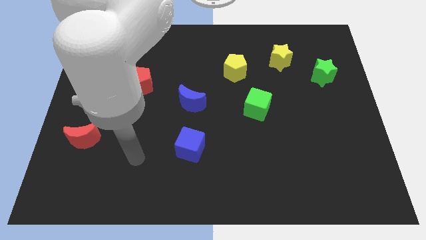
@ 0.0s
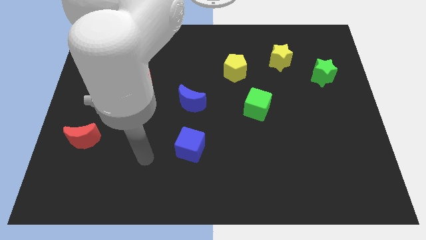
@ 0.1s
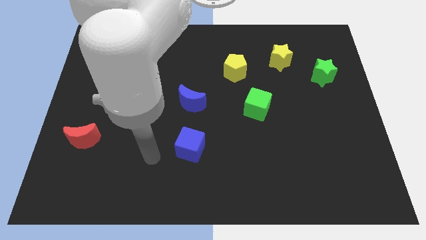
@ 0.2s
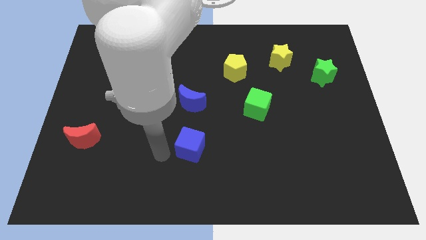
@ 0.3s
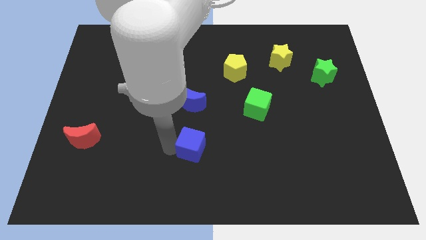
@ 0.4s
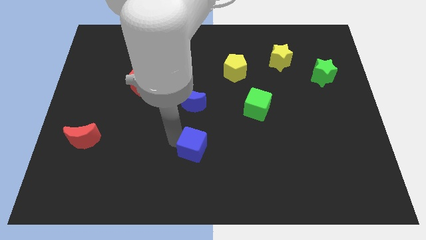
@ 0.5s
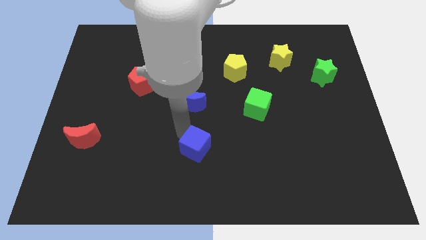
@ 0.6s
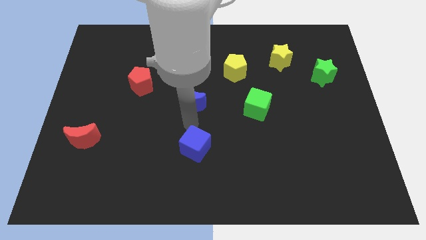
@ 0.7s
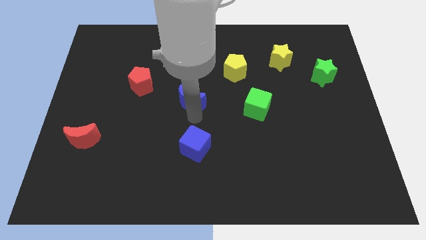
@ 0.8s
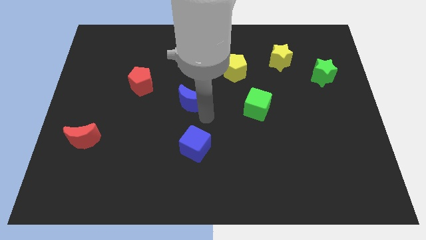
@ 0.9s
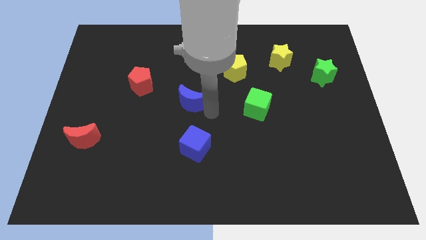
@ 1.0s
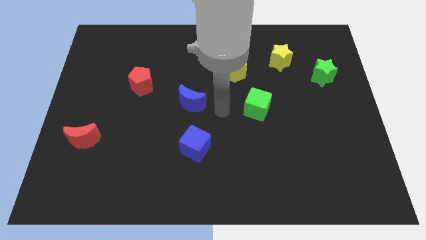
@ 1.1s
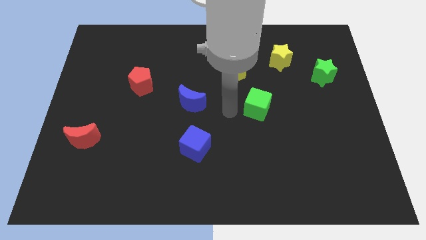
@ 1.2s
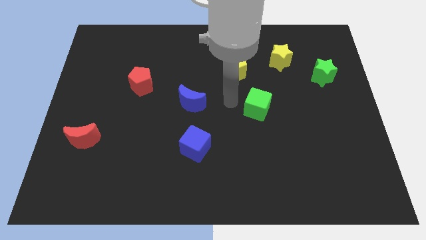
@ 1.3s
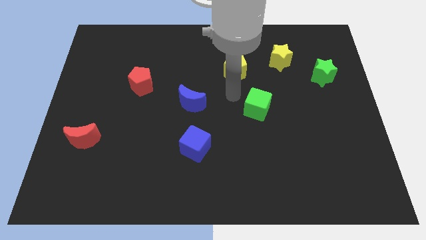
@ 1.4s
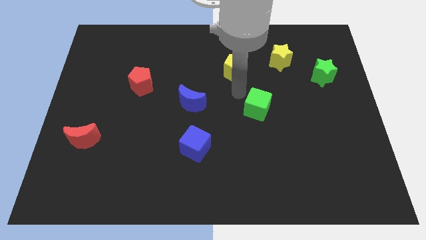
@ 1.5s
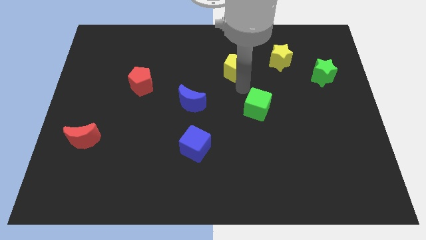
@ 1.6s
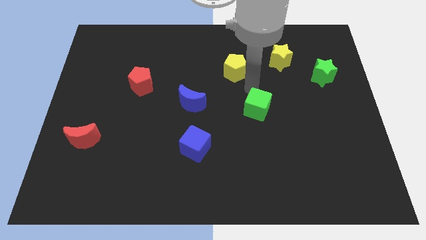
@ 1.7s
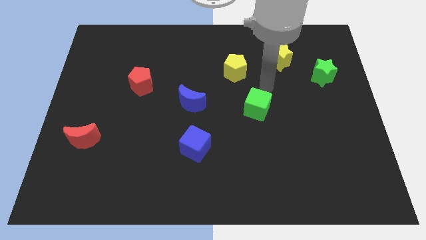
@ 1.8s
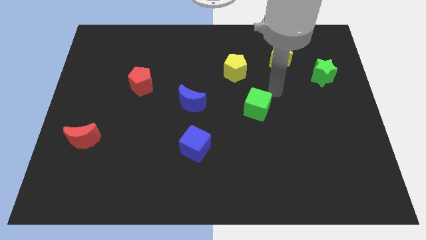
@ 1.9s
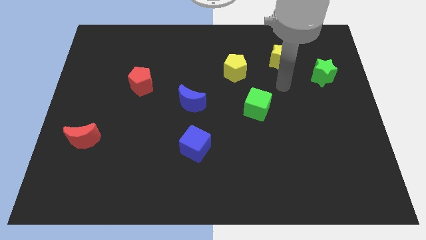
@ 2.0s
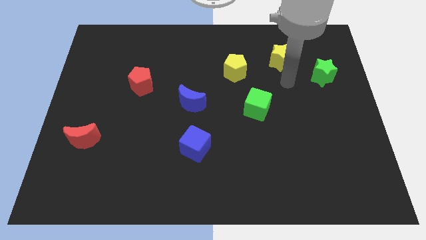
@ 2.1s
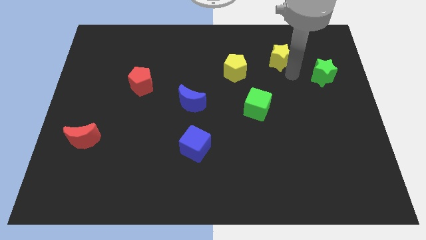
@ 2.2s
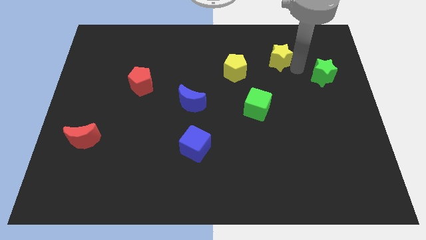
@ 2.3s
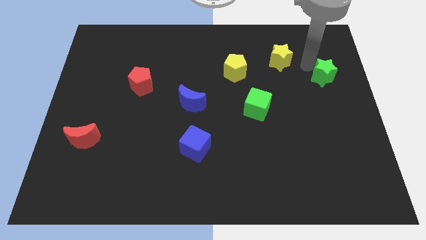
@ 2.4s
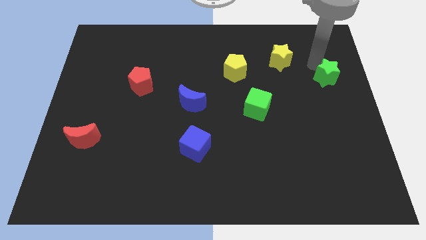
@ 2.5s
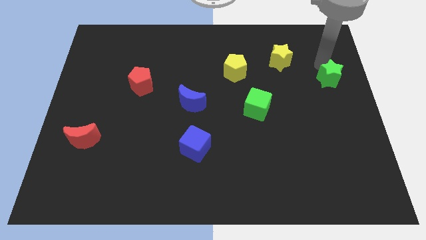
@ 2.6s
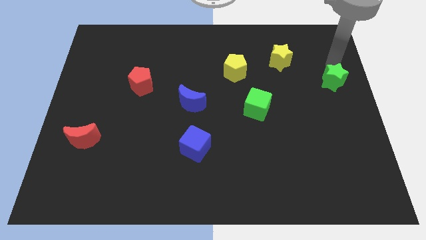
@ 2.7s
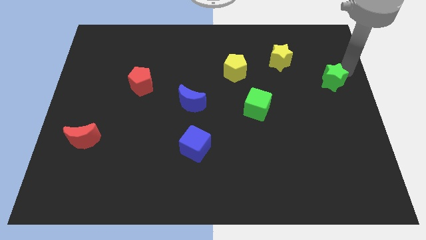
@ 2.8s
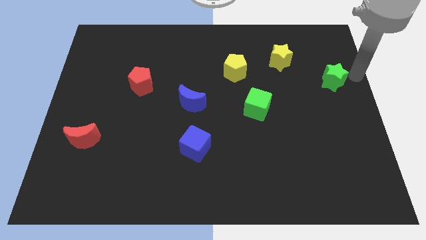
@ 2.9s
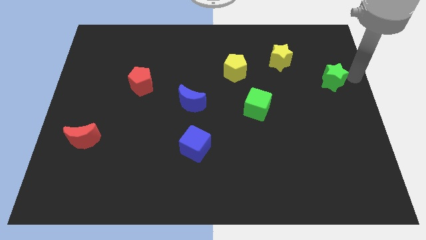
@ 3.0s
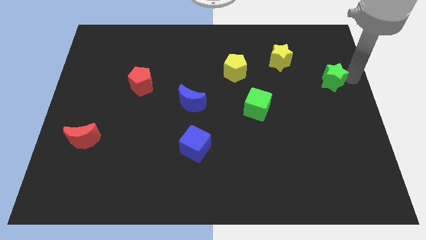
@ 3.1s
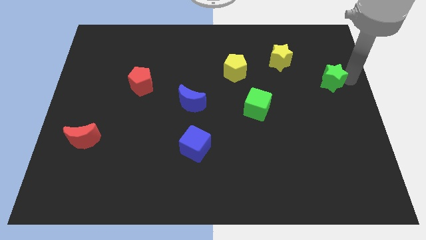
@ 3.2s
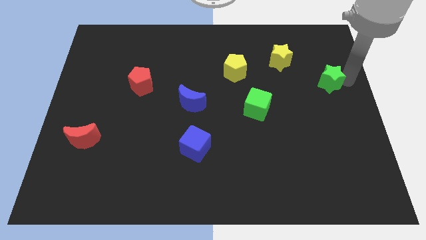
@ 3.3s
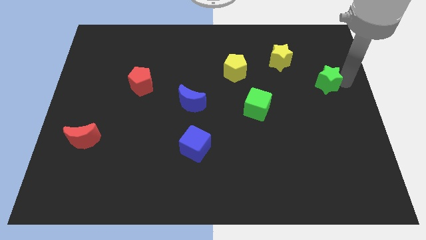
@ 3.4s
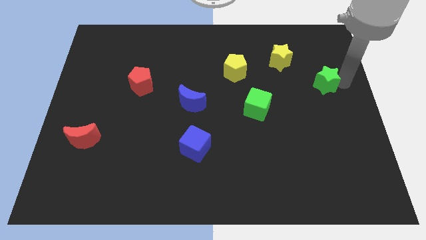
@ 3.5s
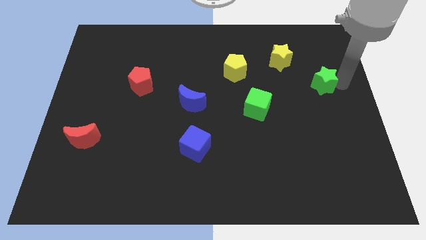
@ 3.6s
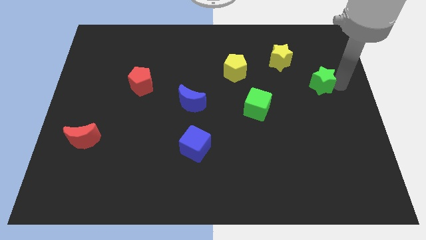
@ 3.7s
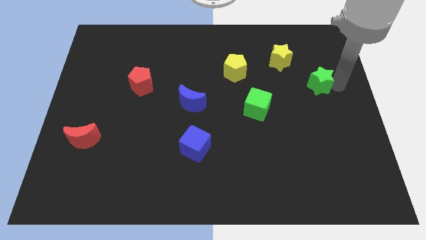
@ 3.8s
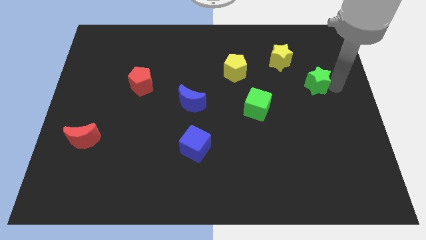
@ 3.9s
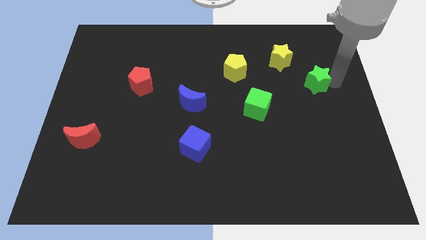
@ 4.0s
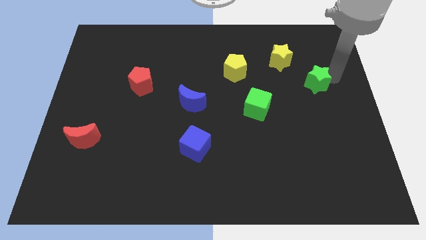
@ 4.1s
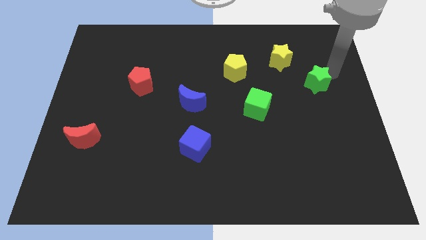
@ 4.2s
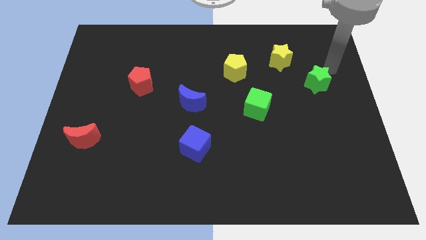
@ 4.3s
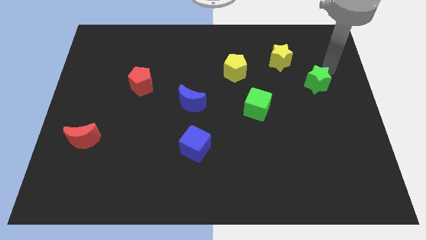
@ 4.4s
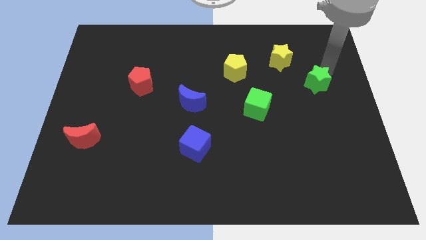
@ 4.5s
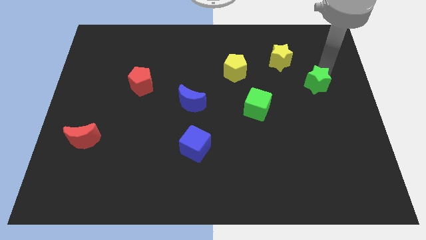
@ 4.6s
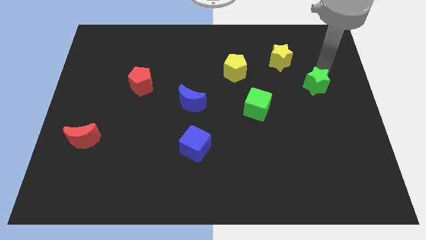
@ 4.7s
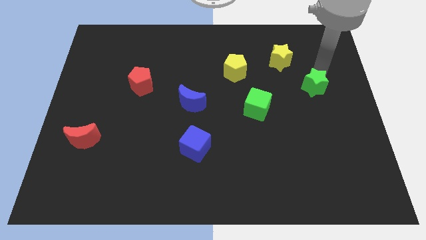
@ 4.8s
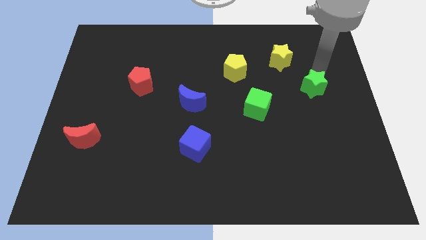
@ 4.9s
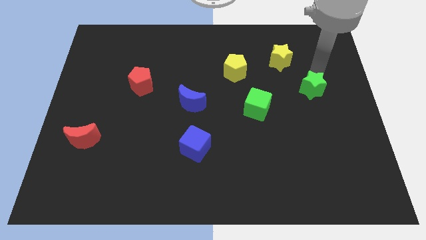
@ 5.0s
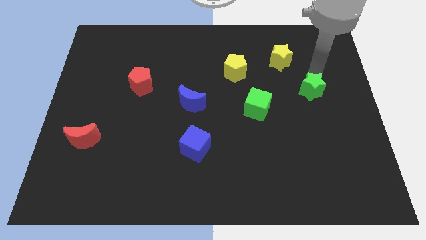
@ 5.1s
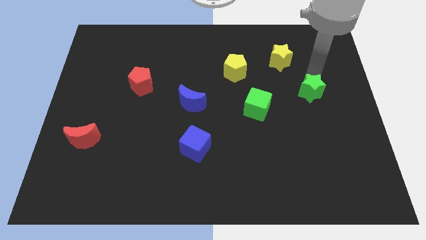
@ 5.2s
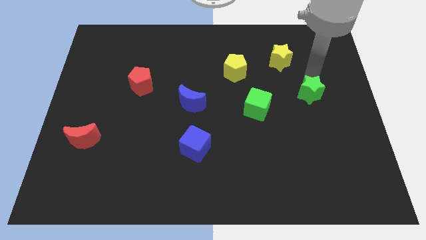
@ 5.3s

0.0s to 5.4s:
move the green star downwards and then to the left slightly

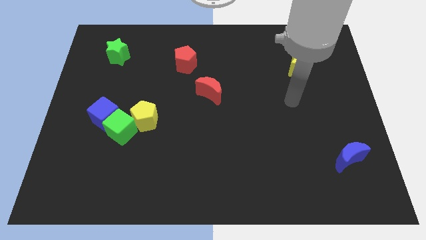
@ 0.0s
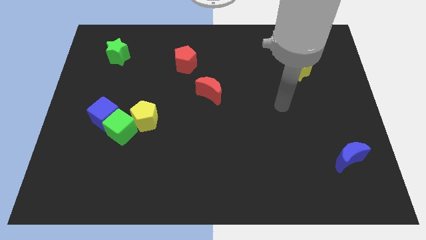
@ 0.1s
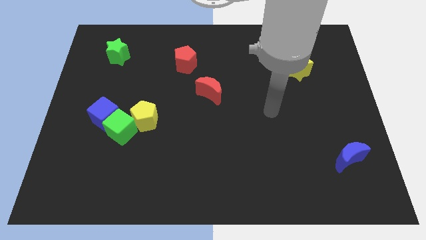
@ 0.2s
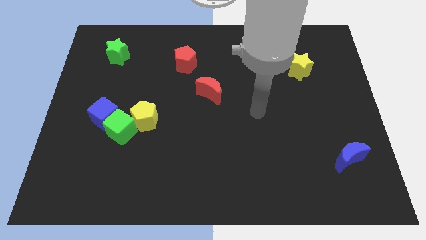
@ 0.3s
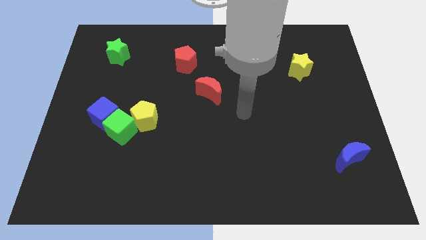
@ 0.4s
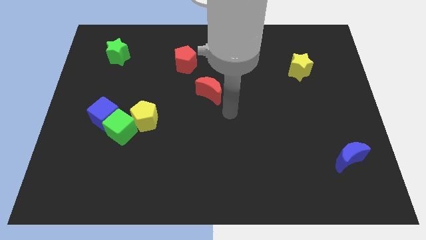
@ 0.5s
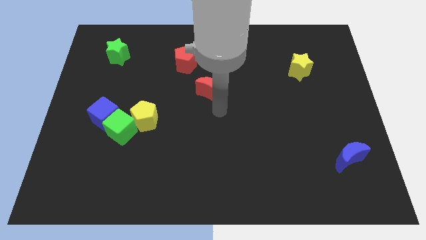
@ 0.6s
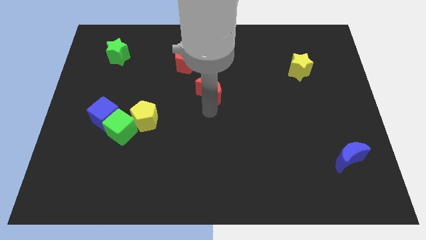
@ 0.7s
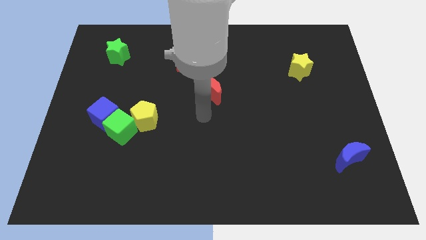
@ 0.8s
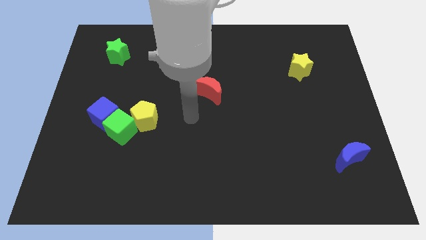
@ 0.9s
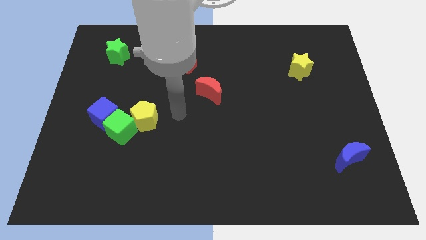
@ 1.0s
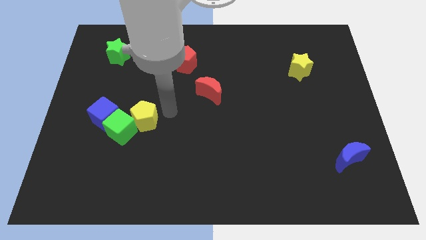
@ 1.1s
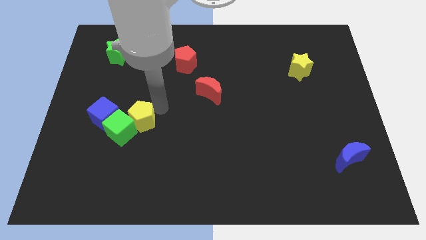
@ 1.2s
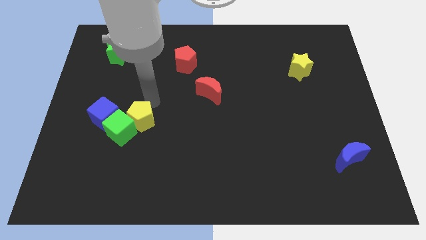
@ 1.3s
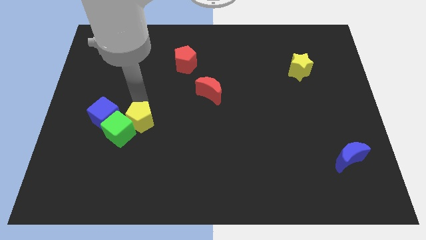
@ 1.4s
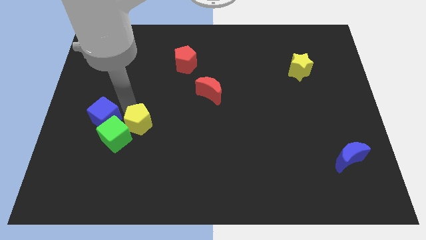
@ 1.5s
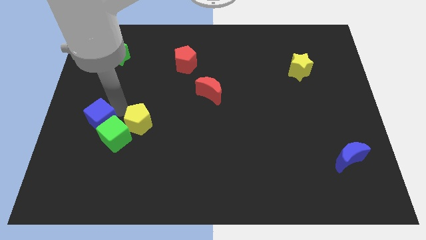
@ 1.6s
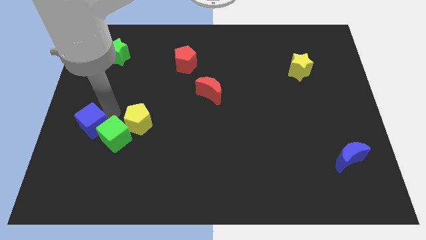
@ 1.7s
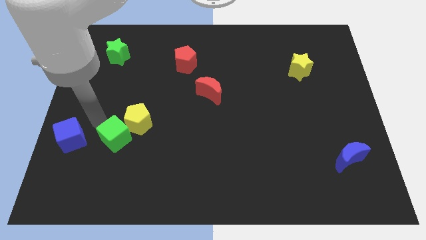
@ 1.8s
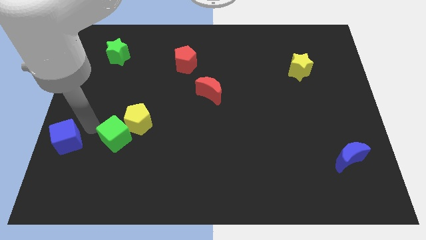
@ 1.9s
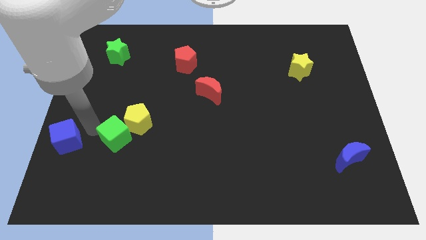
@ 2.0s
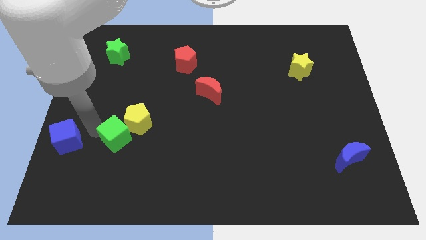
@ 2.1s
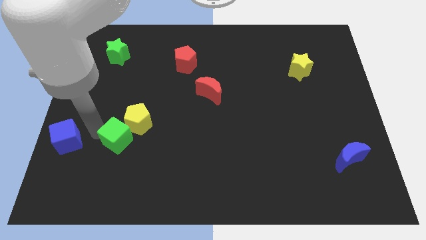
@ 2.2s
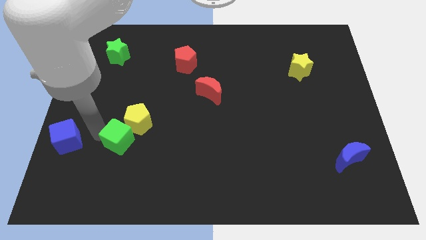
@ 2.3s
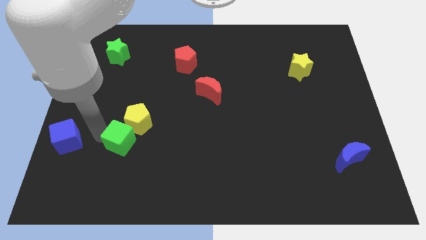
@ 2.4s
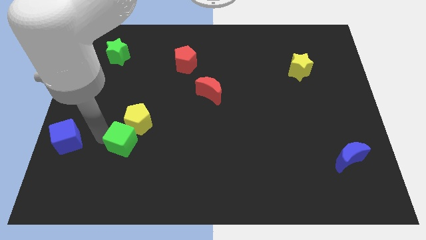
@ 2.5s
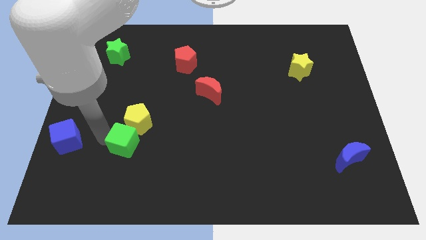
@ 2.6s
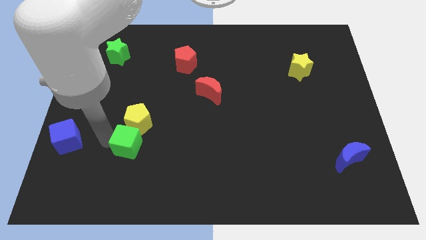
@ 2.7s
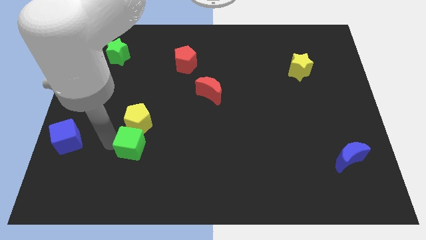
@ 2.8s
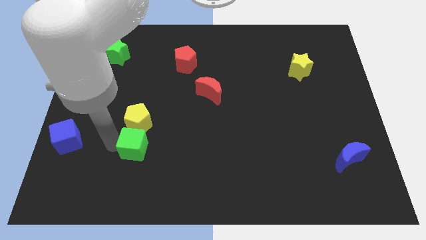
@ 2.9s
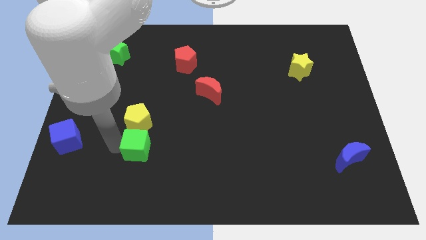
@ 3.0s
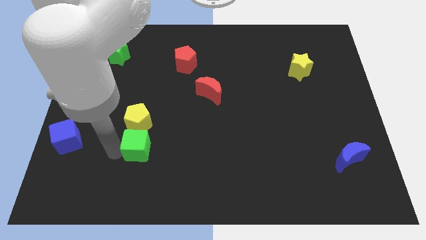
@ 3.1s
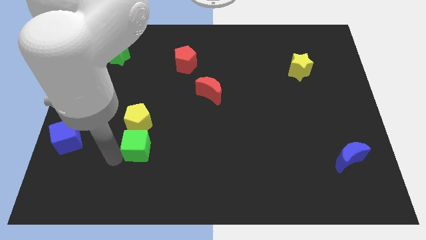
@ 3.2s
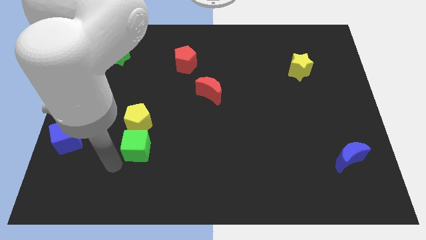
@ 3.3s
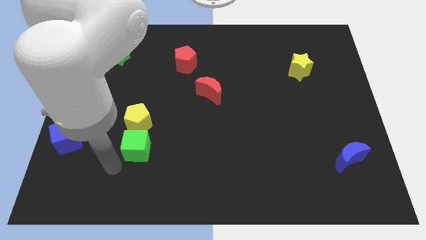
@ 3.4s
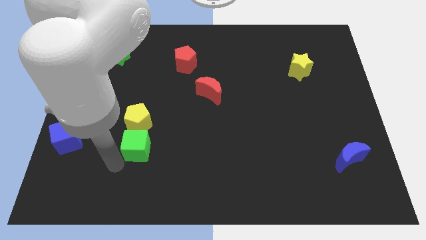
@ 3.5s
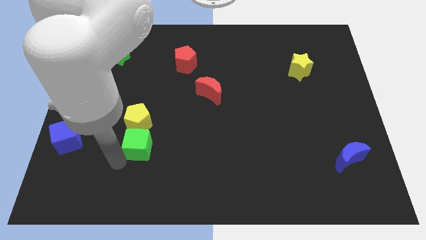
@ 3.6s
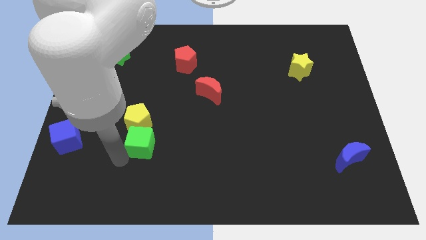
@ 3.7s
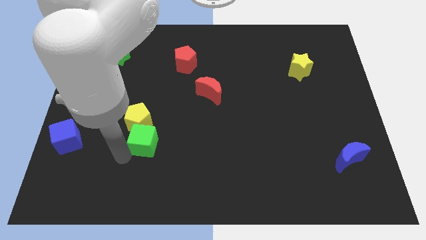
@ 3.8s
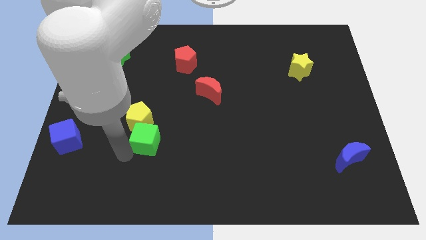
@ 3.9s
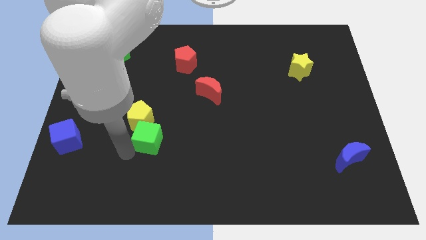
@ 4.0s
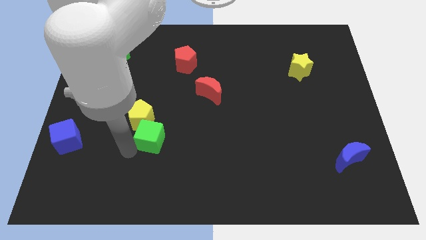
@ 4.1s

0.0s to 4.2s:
slightly push the green cube to the right
